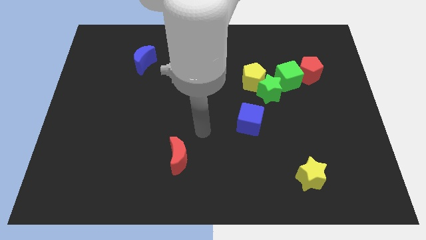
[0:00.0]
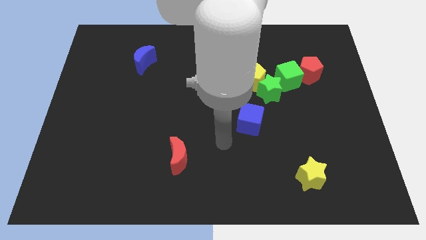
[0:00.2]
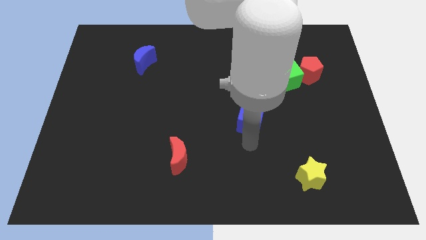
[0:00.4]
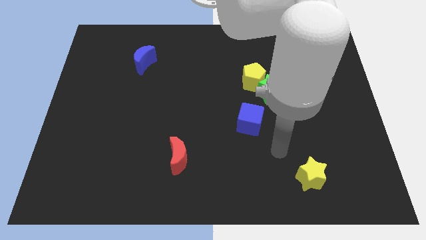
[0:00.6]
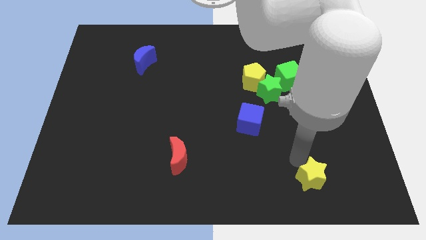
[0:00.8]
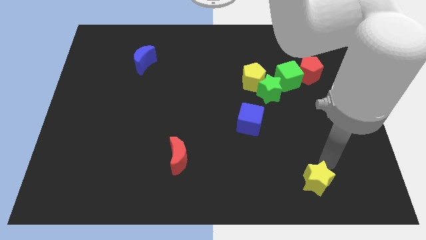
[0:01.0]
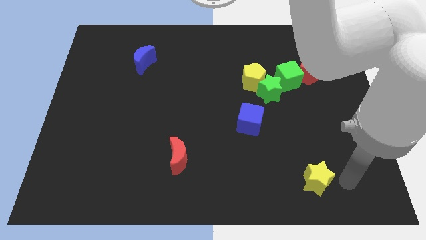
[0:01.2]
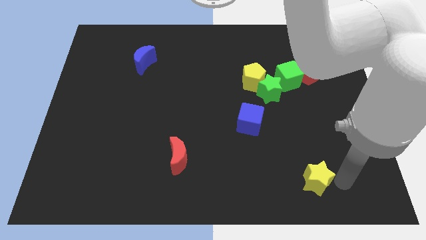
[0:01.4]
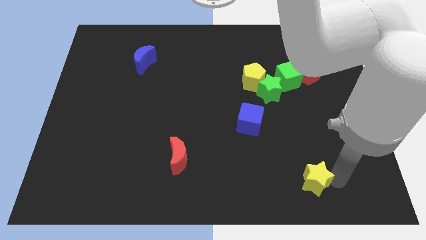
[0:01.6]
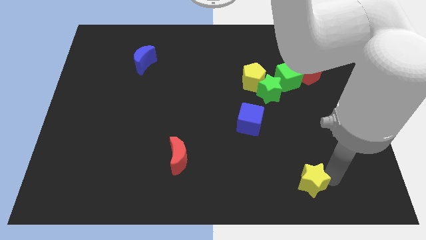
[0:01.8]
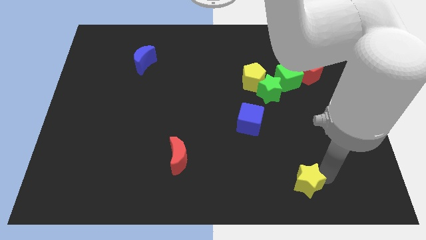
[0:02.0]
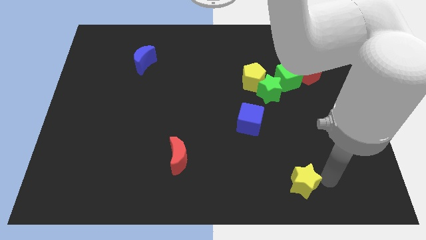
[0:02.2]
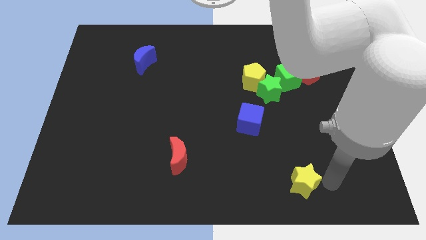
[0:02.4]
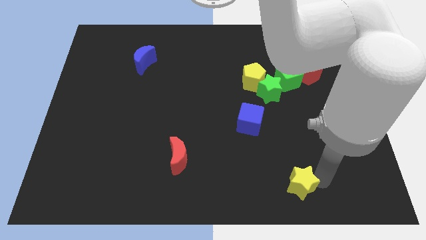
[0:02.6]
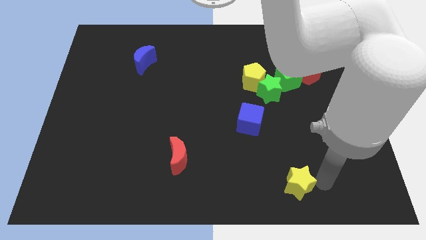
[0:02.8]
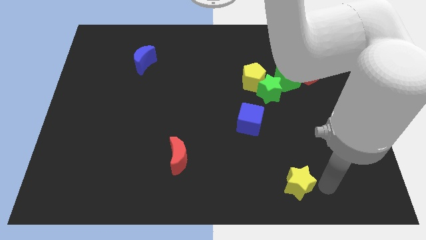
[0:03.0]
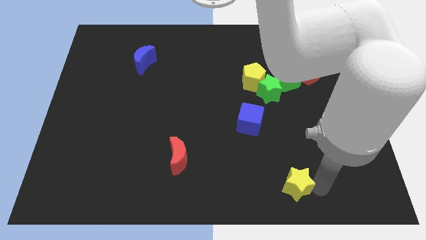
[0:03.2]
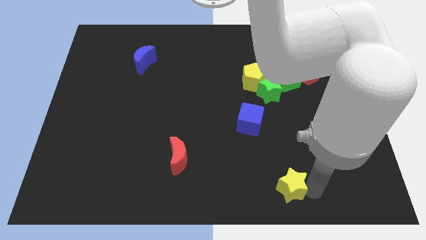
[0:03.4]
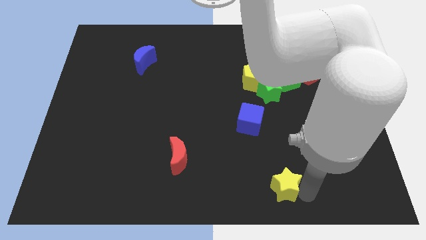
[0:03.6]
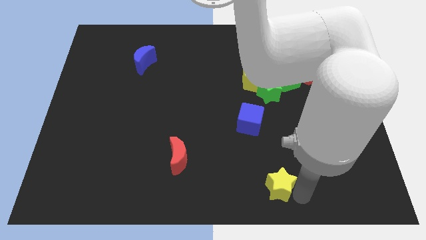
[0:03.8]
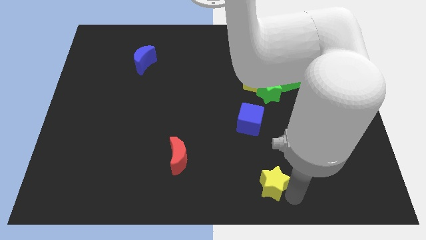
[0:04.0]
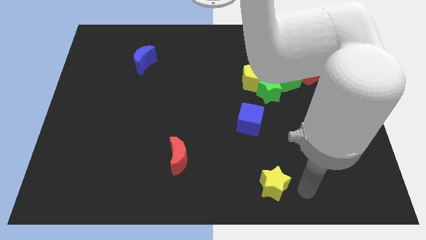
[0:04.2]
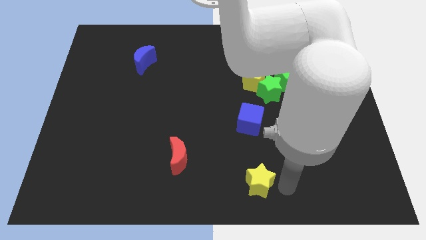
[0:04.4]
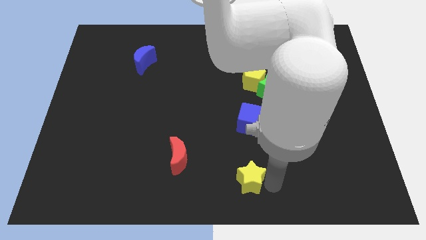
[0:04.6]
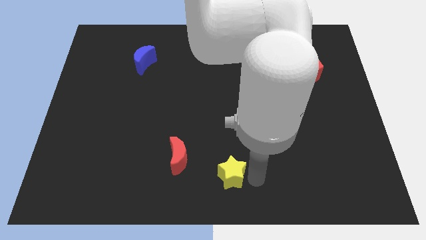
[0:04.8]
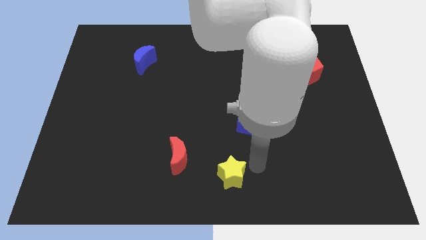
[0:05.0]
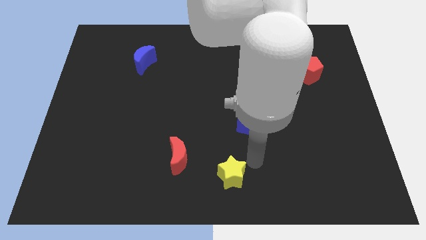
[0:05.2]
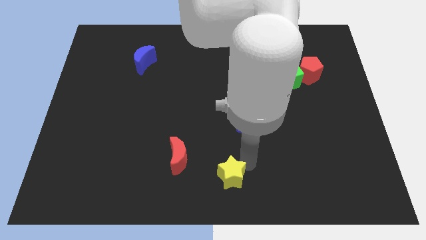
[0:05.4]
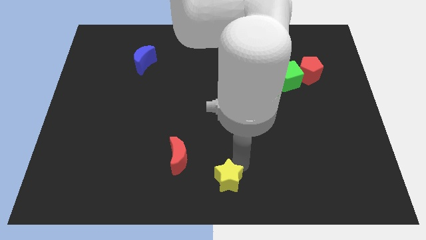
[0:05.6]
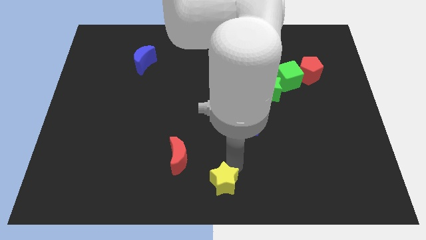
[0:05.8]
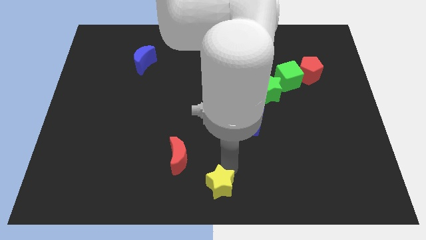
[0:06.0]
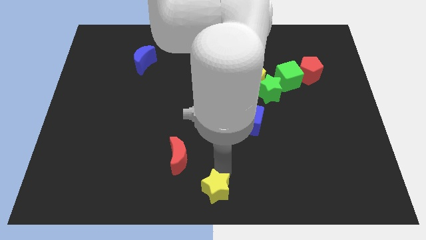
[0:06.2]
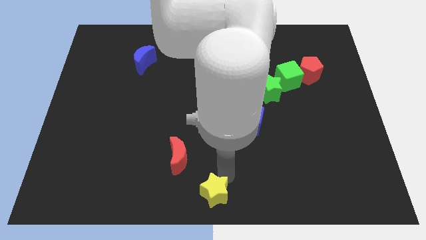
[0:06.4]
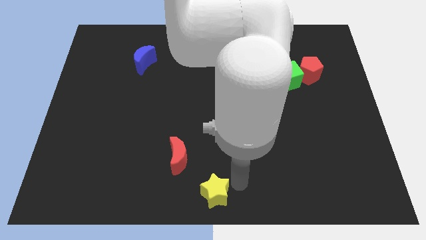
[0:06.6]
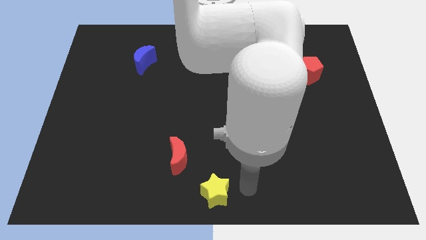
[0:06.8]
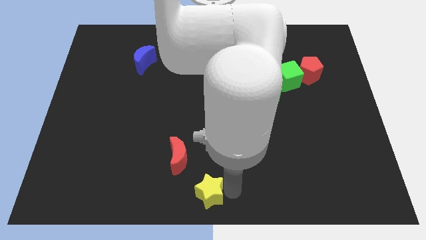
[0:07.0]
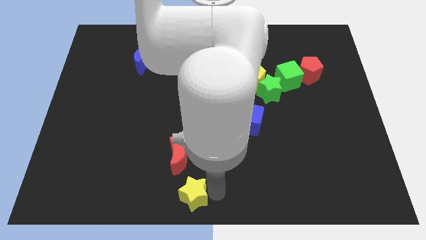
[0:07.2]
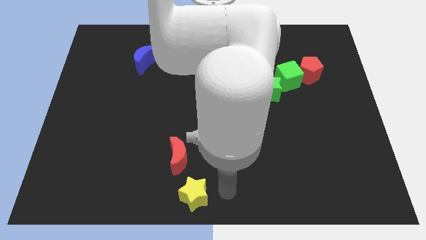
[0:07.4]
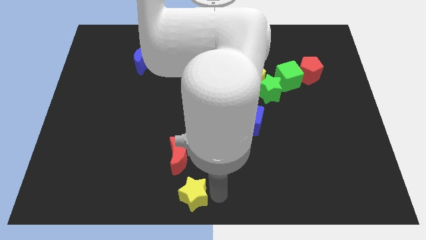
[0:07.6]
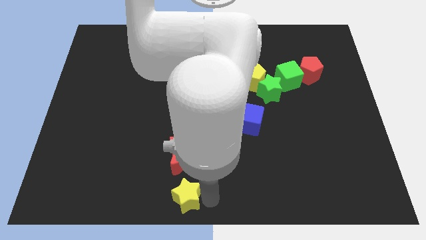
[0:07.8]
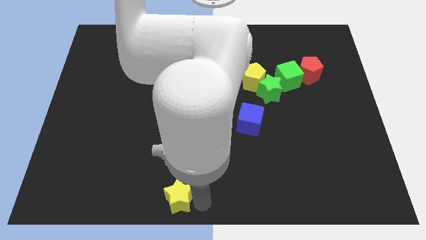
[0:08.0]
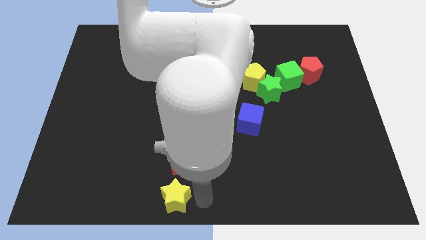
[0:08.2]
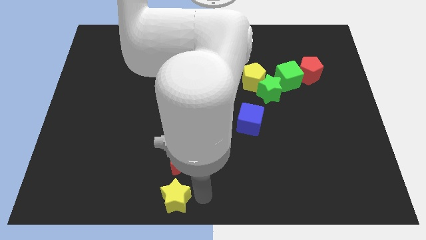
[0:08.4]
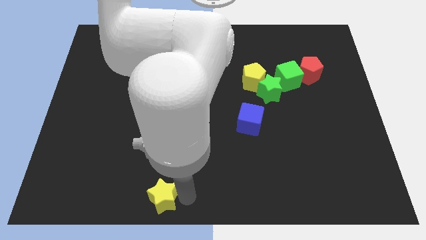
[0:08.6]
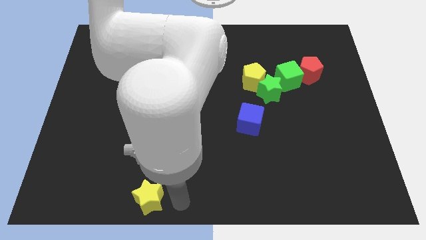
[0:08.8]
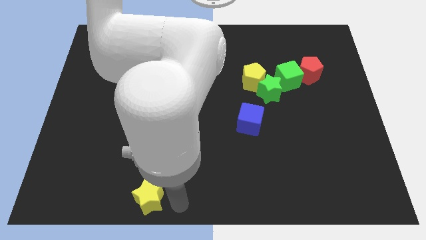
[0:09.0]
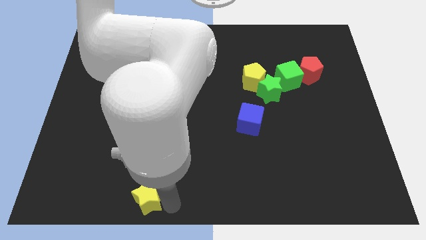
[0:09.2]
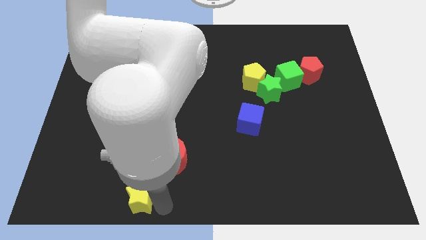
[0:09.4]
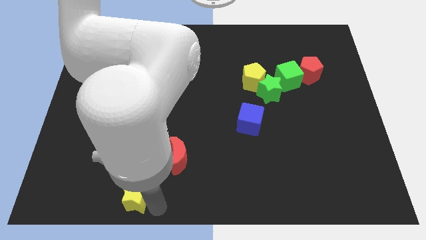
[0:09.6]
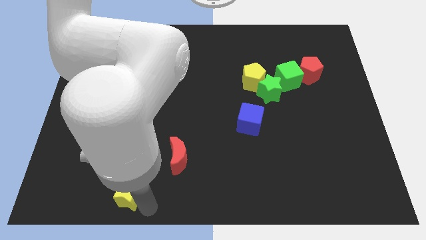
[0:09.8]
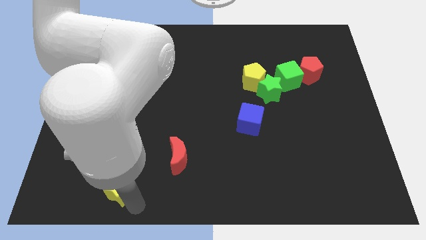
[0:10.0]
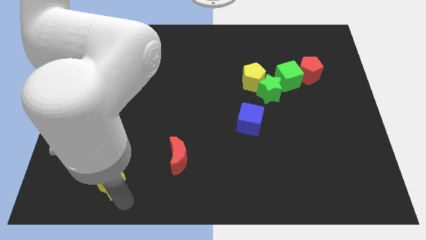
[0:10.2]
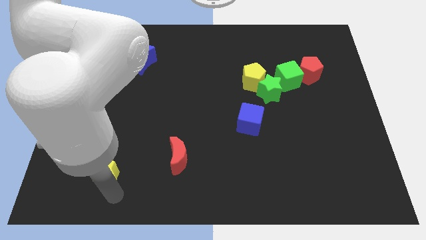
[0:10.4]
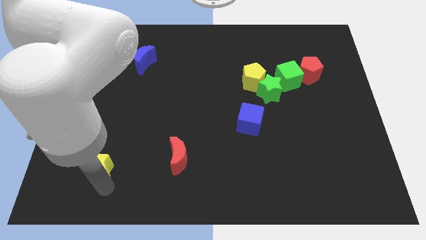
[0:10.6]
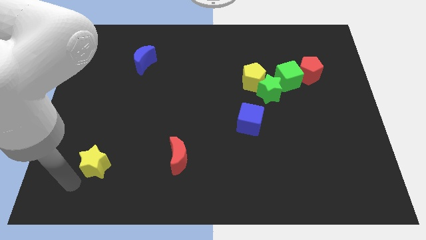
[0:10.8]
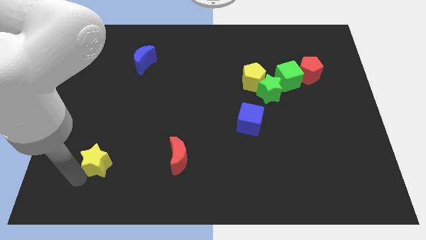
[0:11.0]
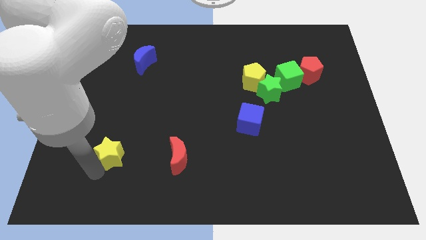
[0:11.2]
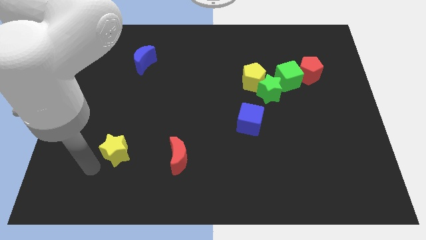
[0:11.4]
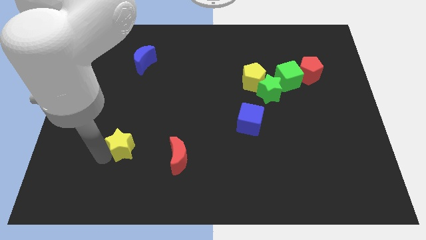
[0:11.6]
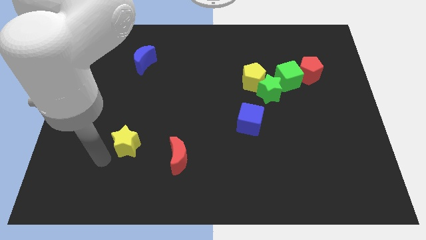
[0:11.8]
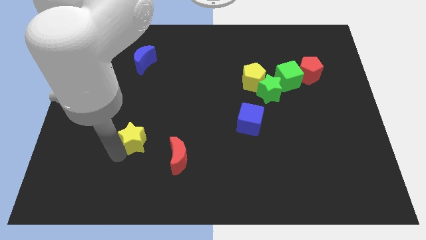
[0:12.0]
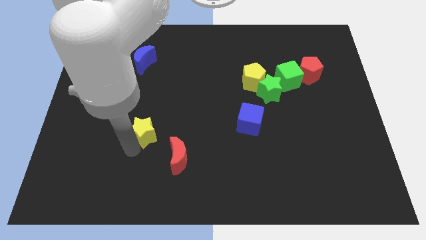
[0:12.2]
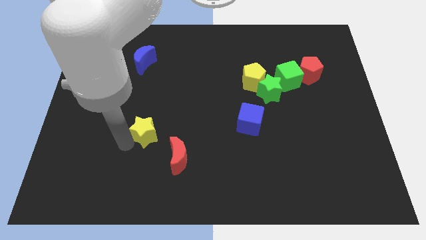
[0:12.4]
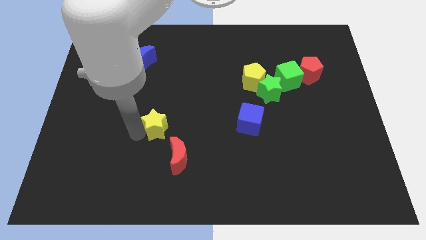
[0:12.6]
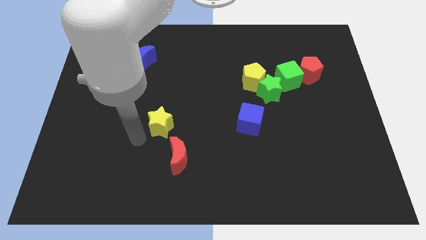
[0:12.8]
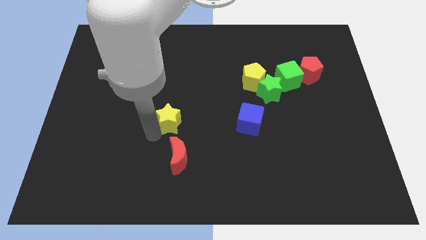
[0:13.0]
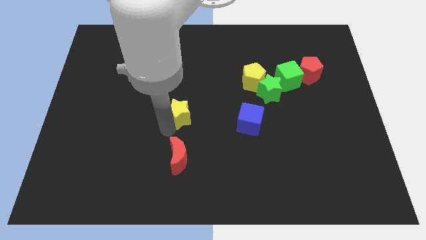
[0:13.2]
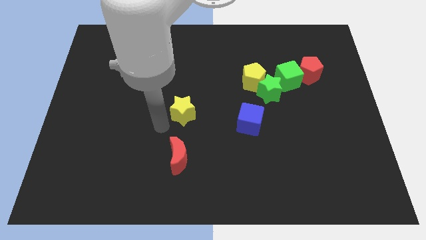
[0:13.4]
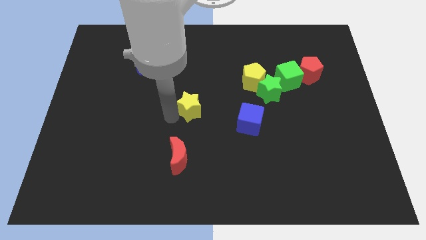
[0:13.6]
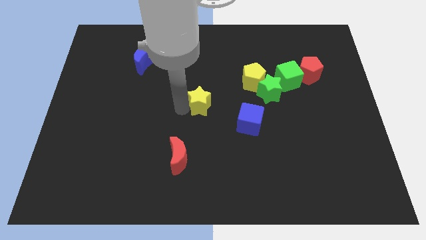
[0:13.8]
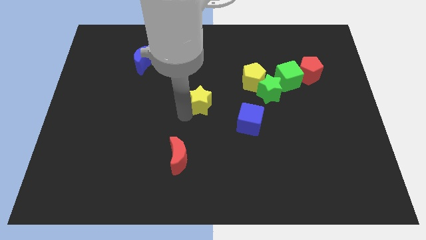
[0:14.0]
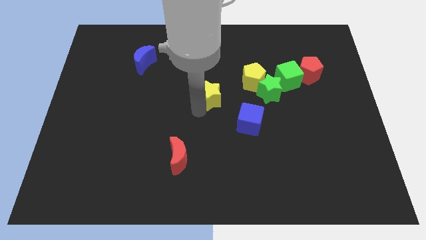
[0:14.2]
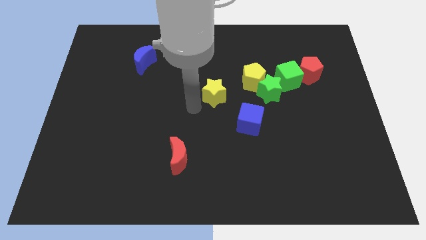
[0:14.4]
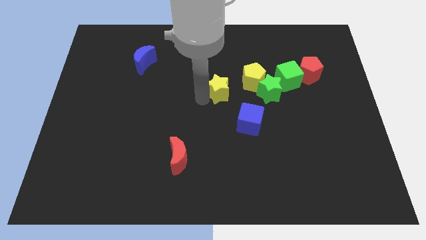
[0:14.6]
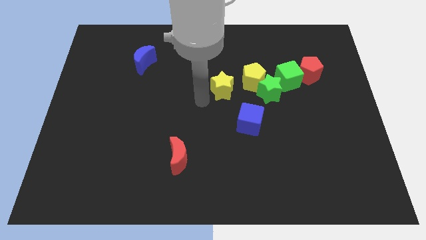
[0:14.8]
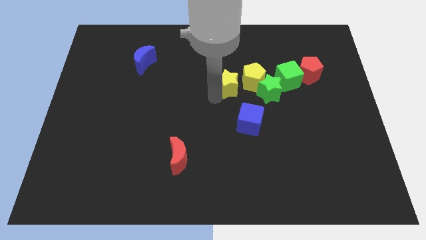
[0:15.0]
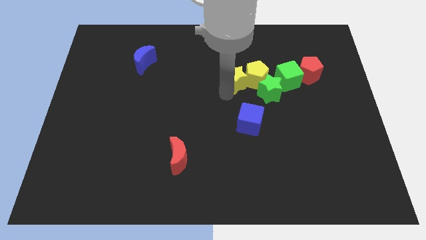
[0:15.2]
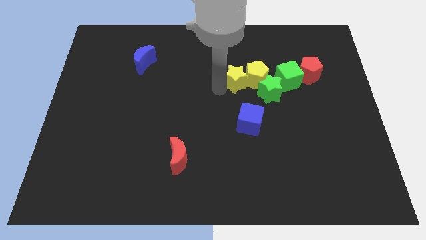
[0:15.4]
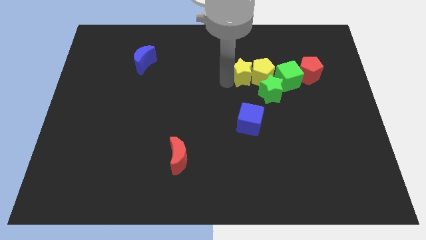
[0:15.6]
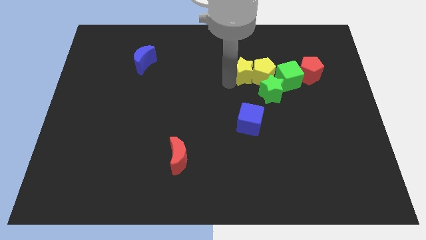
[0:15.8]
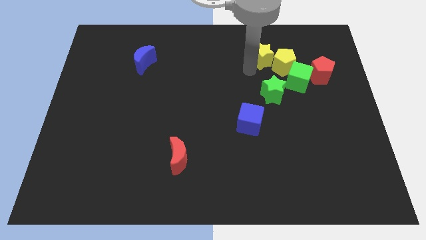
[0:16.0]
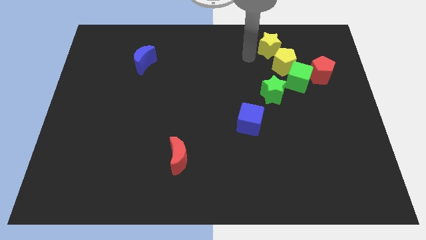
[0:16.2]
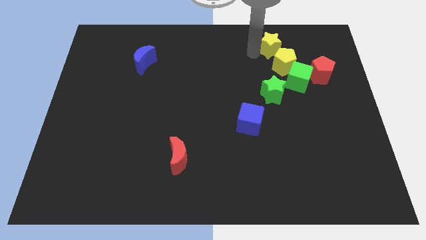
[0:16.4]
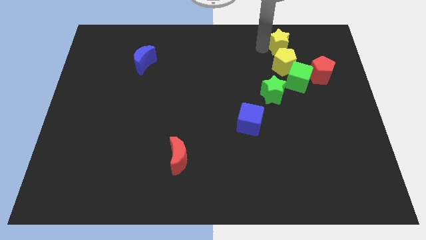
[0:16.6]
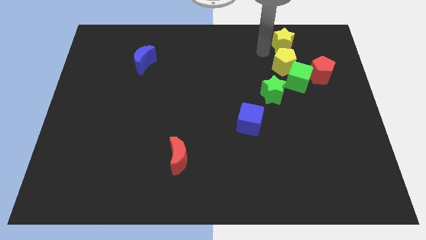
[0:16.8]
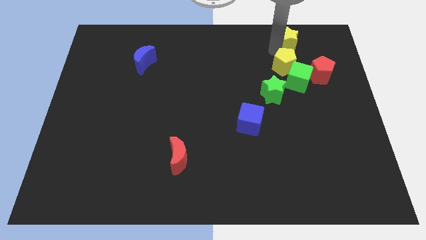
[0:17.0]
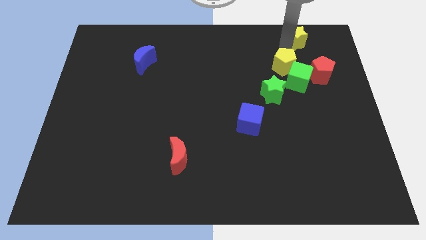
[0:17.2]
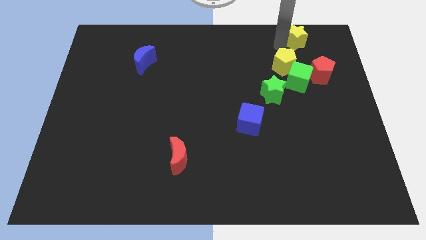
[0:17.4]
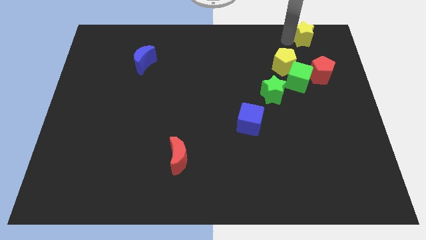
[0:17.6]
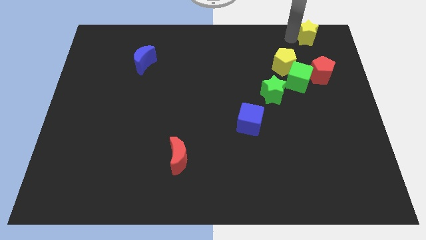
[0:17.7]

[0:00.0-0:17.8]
put the yellow star to the upper right corner
